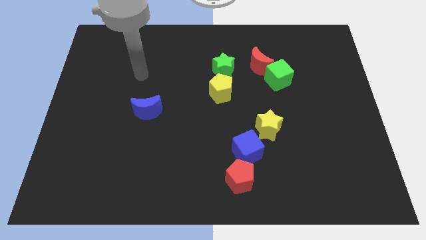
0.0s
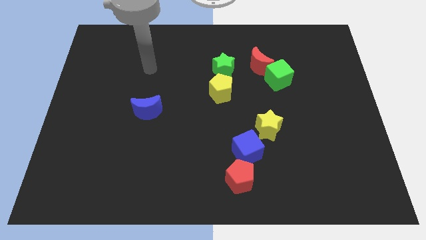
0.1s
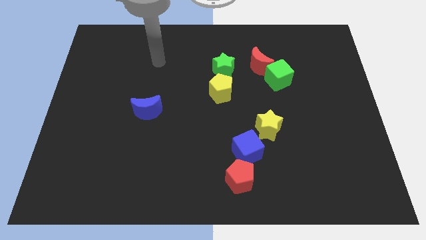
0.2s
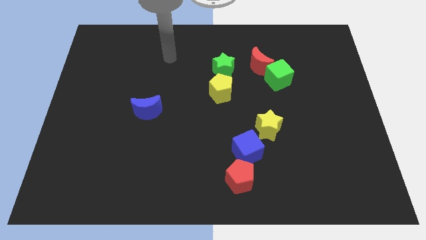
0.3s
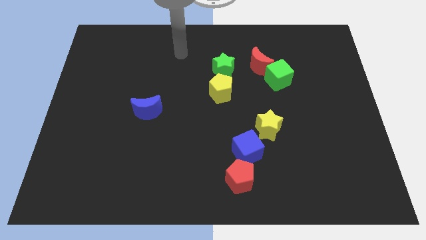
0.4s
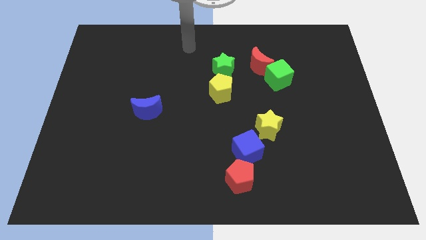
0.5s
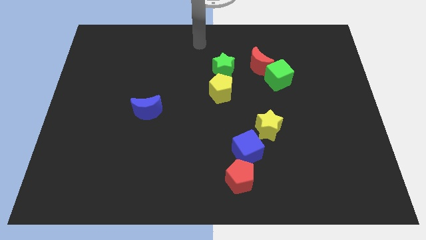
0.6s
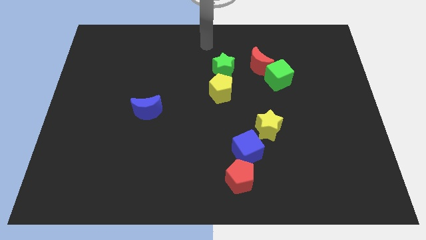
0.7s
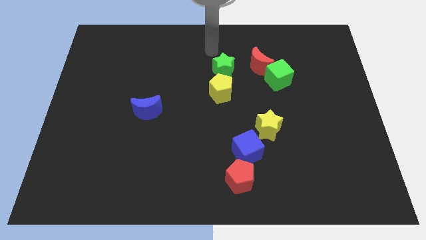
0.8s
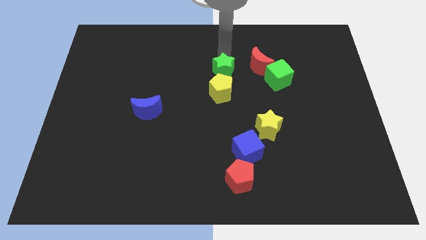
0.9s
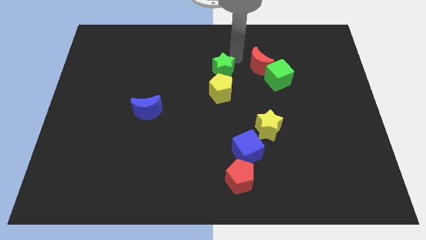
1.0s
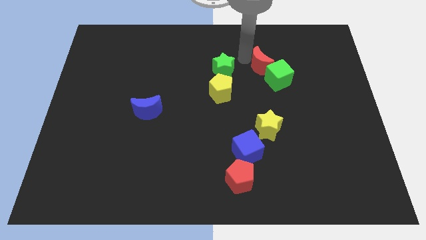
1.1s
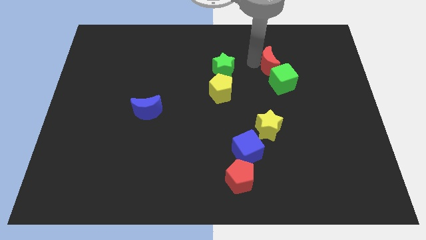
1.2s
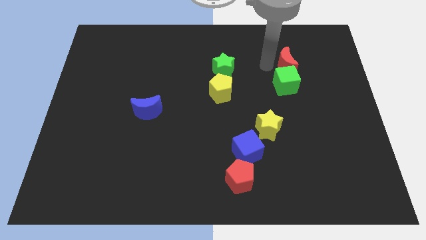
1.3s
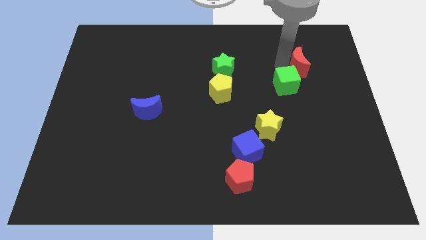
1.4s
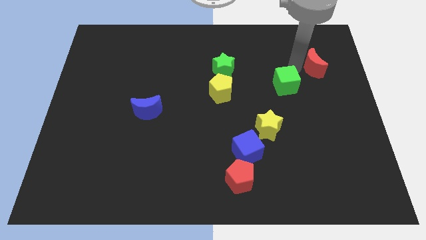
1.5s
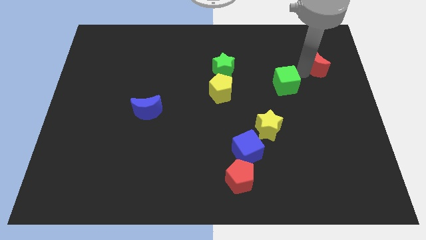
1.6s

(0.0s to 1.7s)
move the green cube away from the red moon

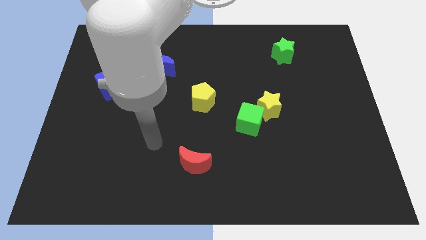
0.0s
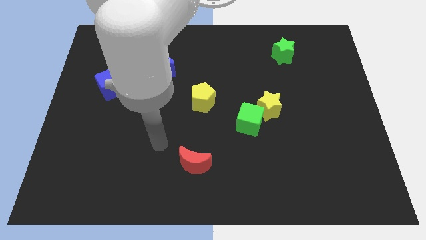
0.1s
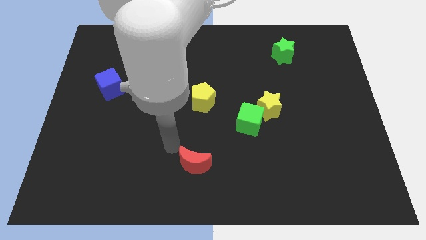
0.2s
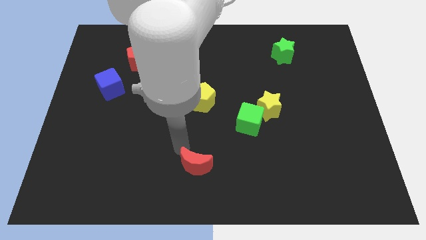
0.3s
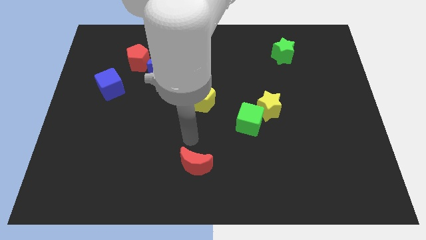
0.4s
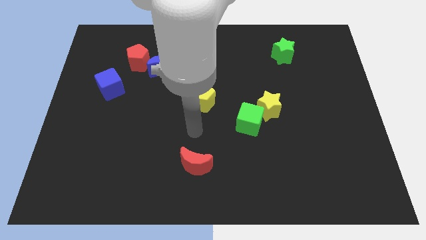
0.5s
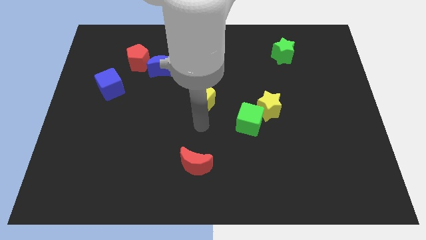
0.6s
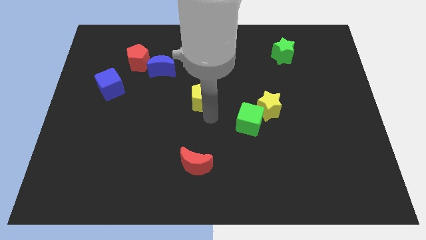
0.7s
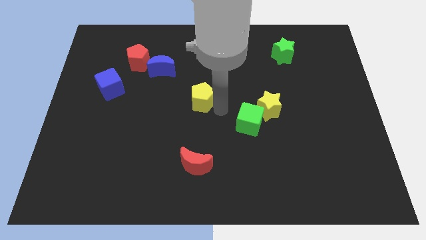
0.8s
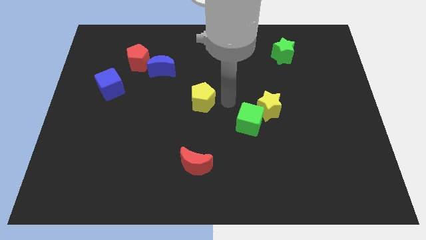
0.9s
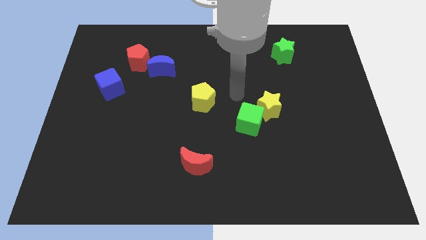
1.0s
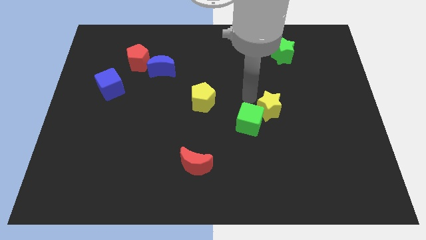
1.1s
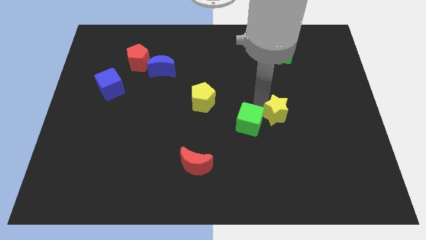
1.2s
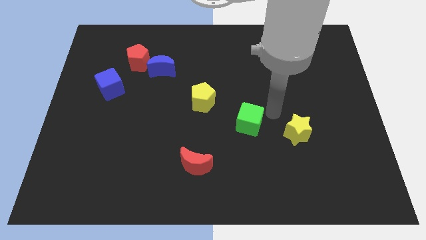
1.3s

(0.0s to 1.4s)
move the green cube away from the yellow star

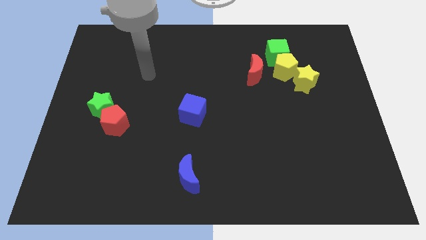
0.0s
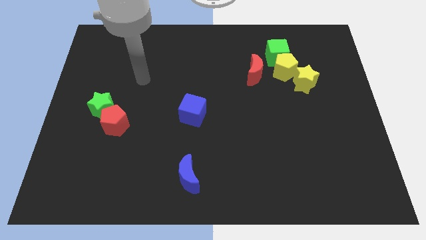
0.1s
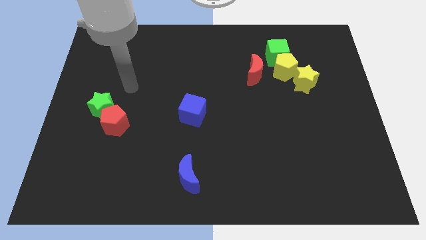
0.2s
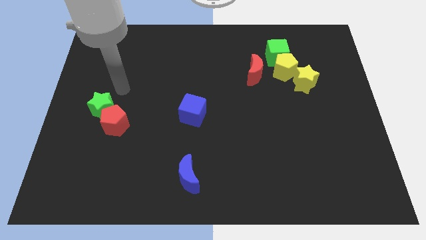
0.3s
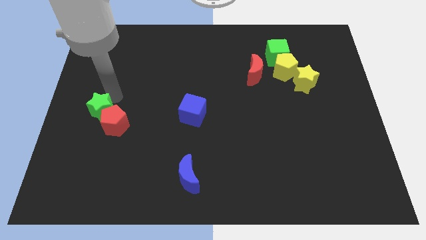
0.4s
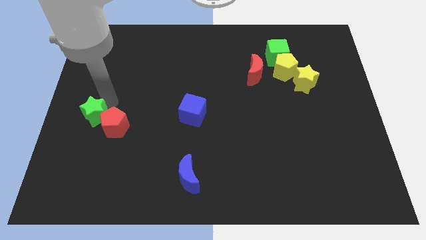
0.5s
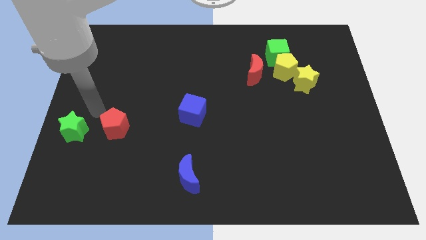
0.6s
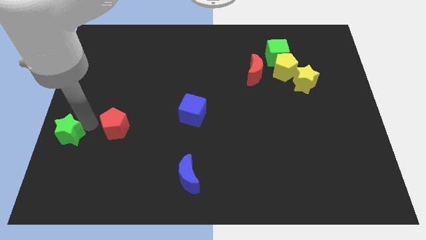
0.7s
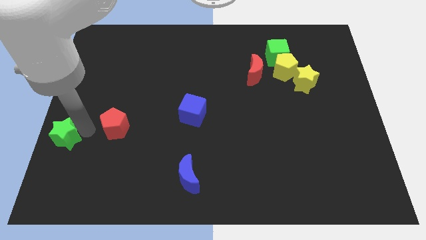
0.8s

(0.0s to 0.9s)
move the red pentagon away from the green star

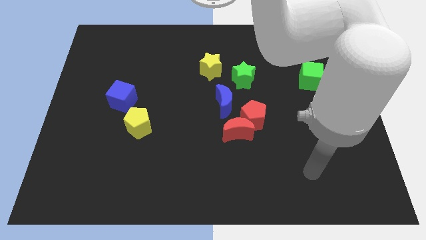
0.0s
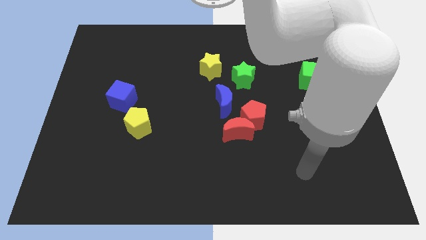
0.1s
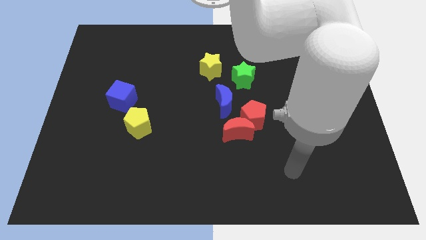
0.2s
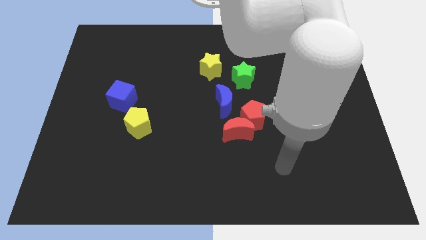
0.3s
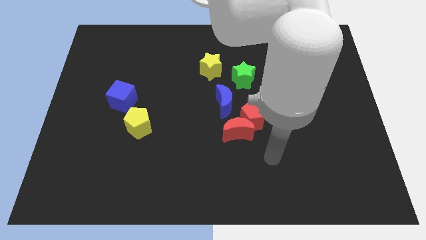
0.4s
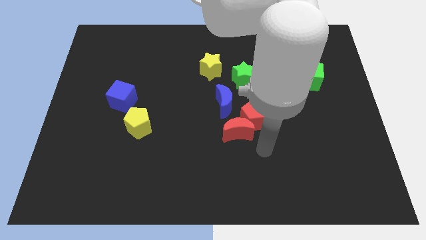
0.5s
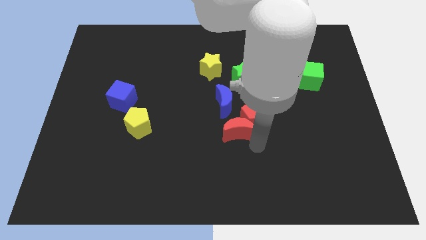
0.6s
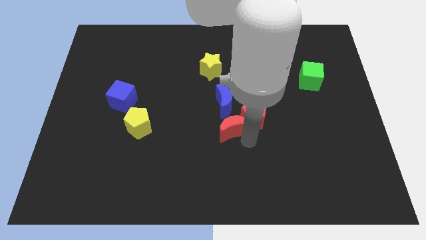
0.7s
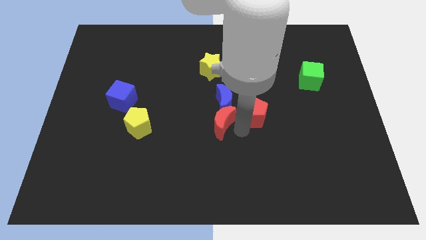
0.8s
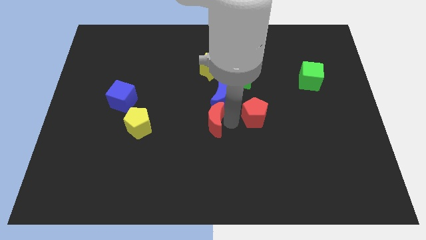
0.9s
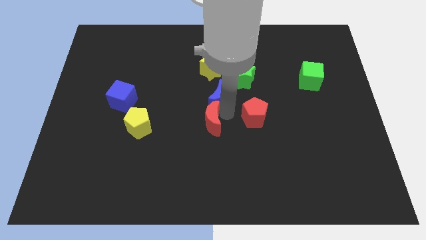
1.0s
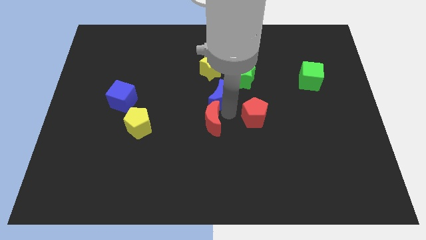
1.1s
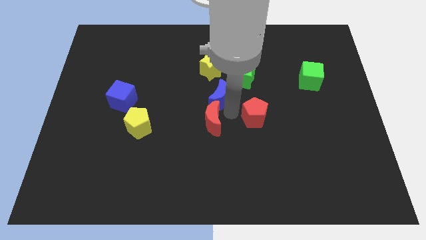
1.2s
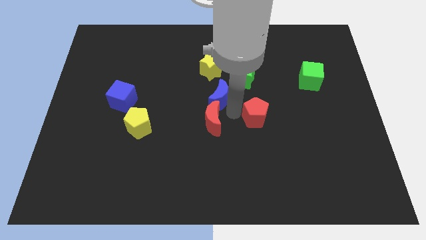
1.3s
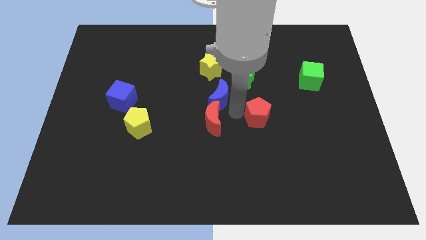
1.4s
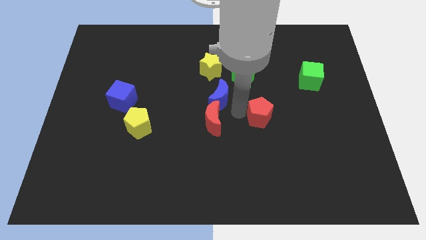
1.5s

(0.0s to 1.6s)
pull the red pentagon apart from the red moon and blue moon

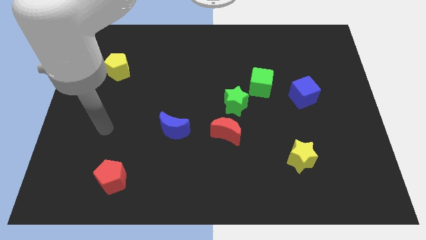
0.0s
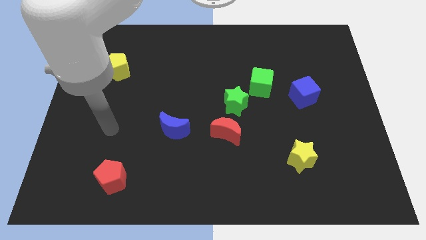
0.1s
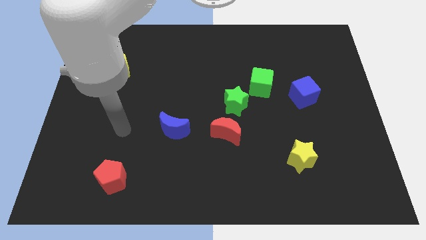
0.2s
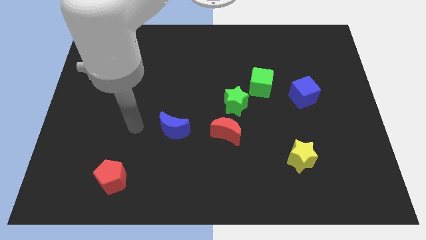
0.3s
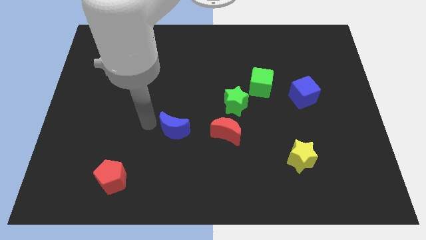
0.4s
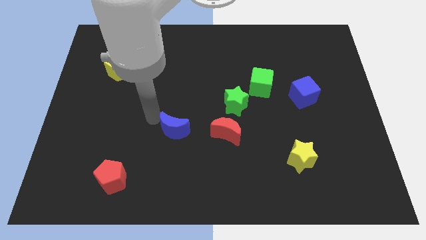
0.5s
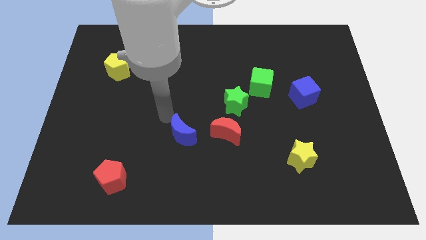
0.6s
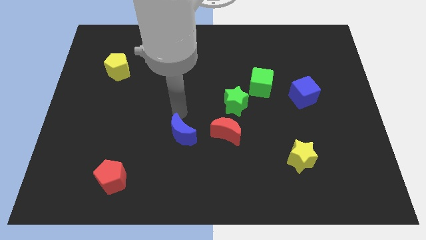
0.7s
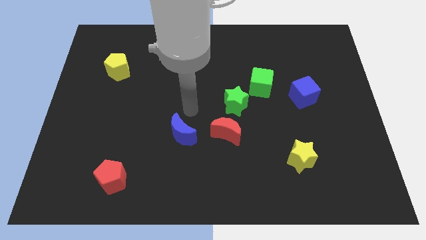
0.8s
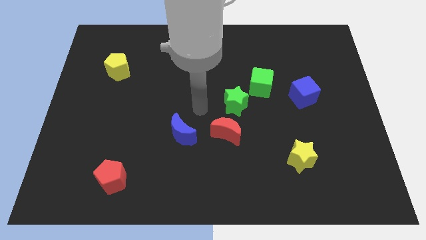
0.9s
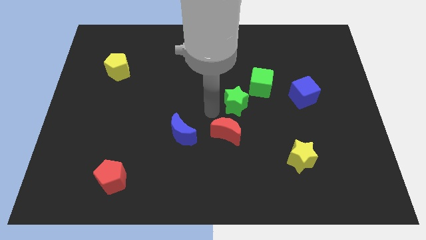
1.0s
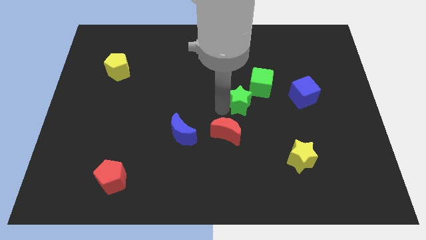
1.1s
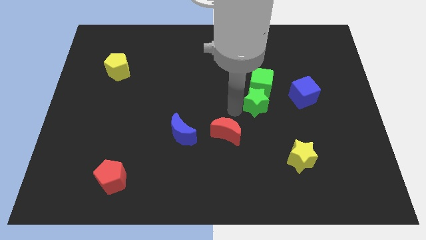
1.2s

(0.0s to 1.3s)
pull the red moon apart from the green star

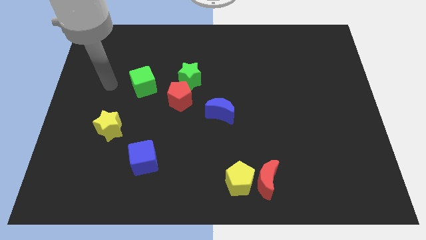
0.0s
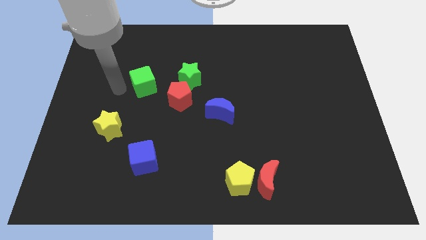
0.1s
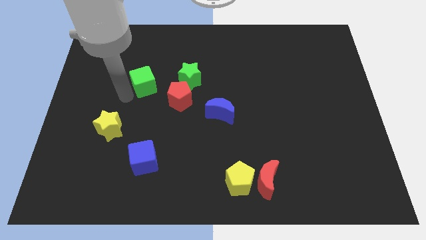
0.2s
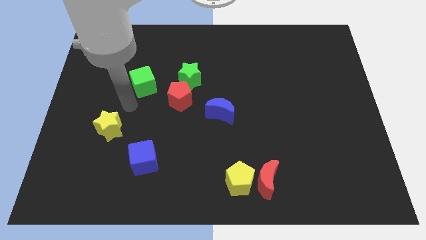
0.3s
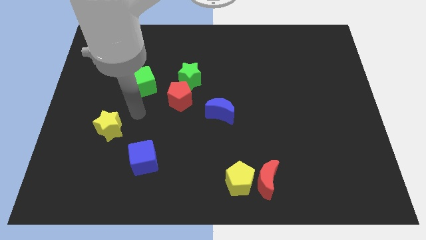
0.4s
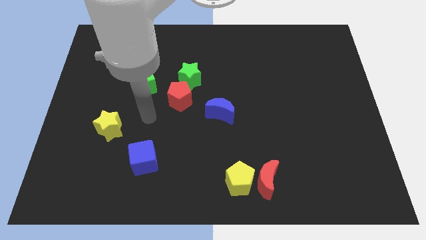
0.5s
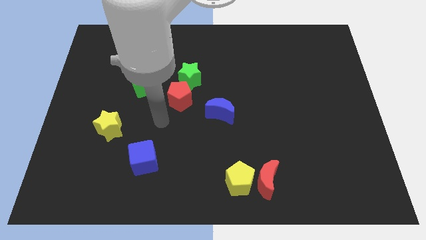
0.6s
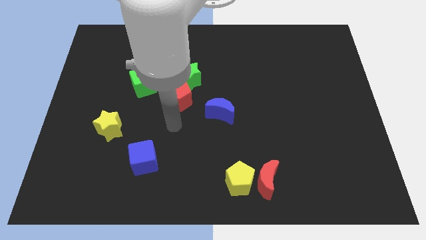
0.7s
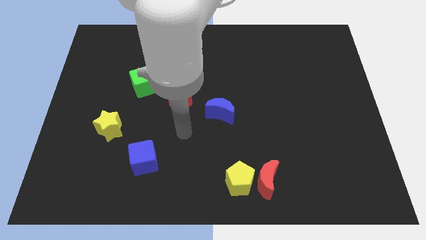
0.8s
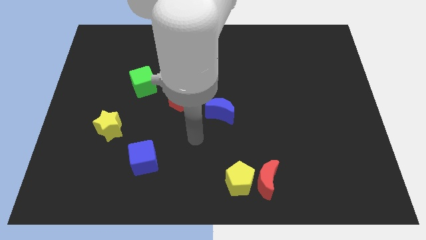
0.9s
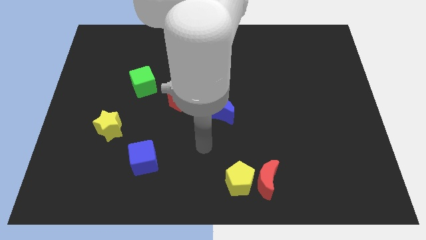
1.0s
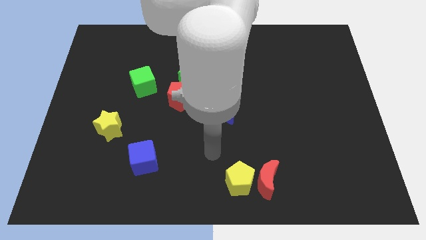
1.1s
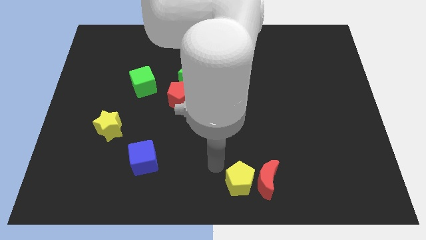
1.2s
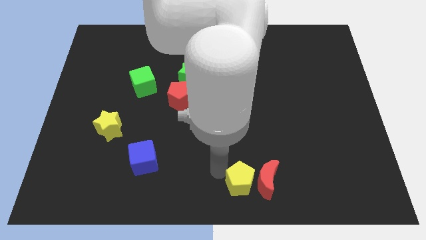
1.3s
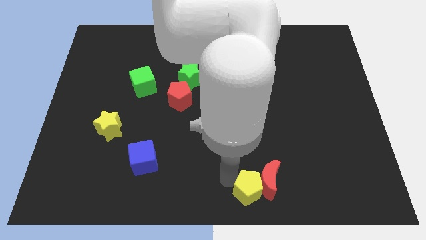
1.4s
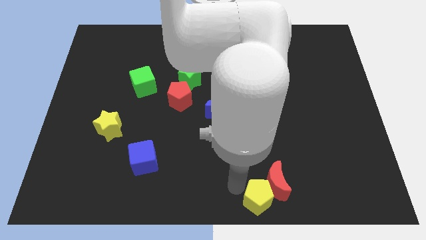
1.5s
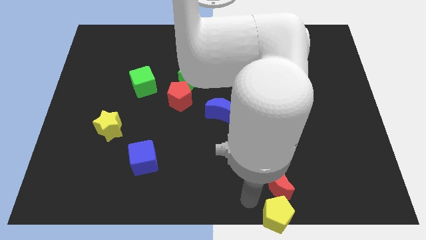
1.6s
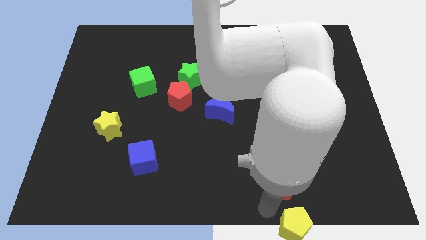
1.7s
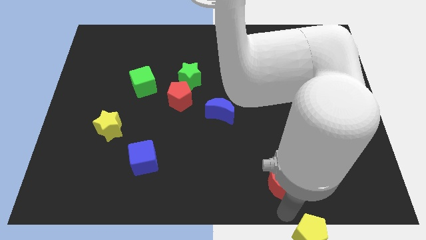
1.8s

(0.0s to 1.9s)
pull the red moon apart from the yellow pentagon

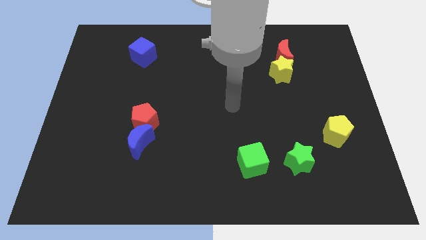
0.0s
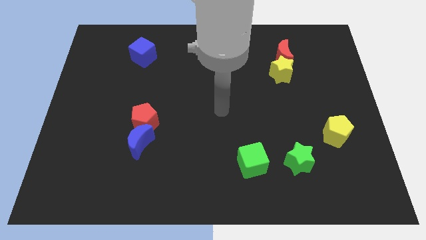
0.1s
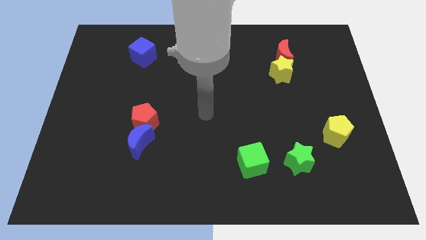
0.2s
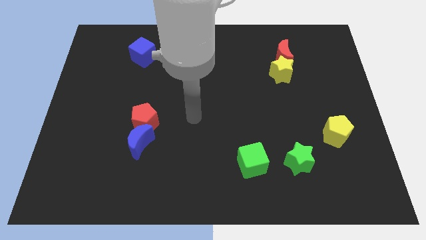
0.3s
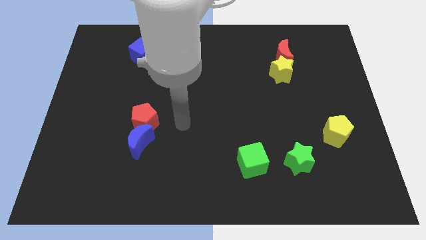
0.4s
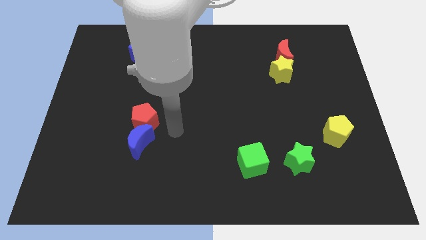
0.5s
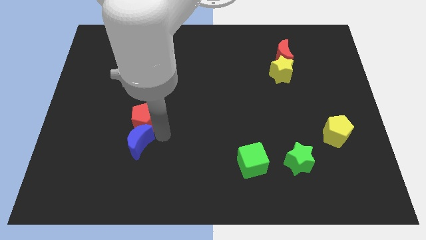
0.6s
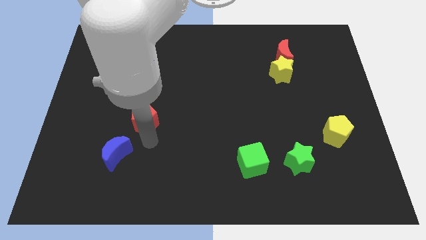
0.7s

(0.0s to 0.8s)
move the red pentagon away from the blue moon
